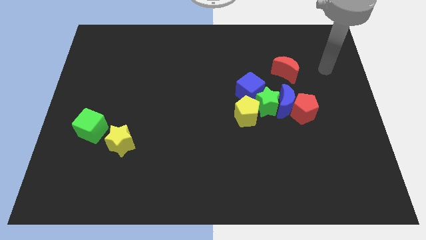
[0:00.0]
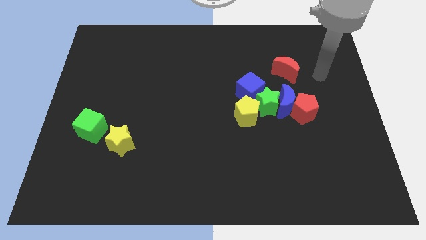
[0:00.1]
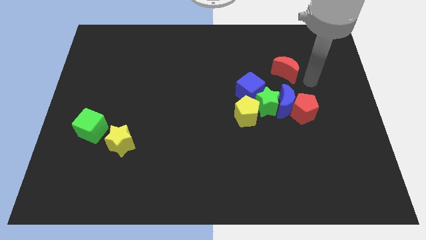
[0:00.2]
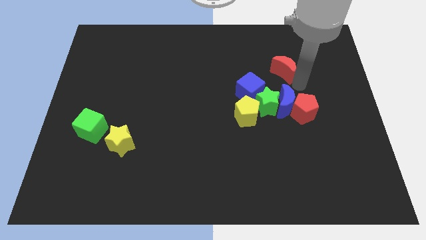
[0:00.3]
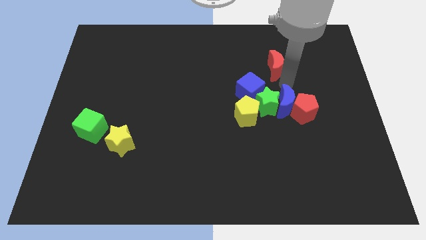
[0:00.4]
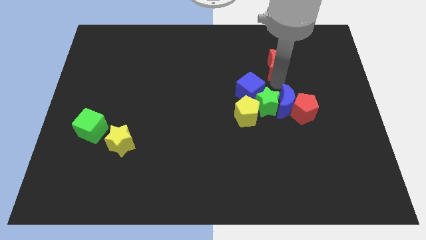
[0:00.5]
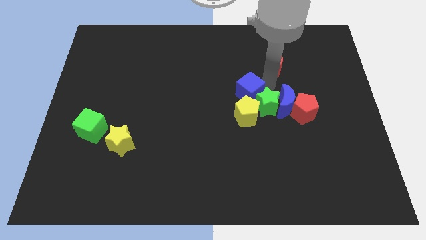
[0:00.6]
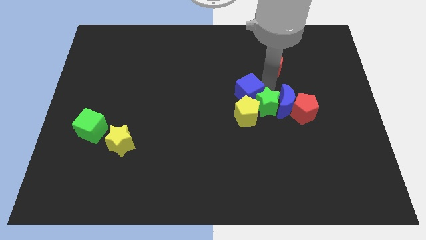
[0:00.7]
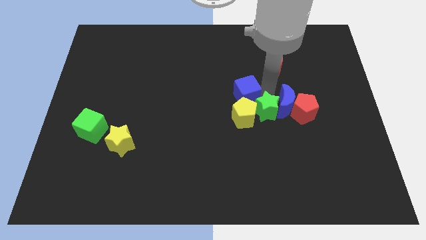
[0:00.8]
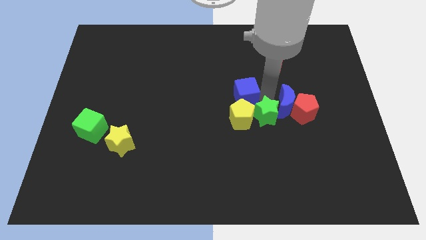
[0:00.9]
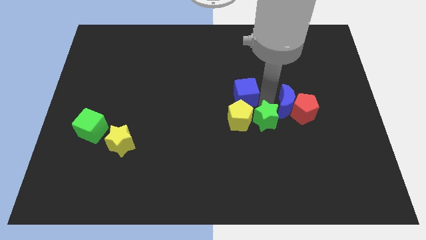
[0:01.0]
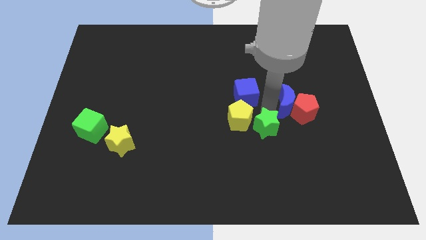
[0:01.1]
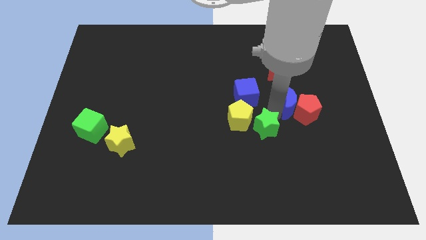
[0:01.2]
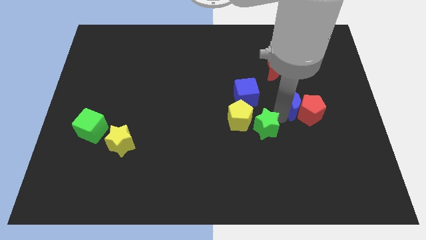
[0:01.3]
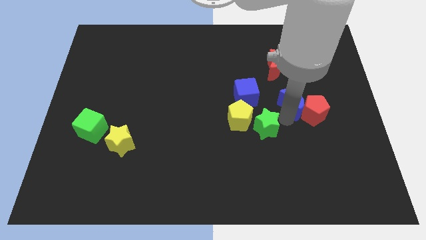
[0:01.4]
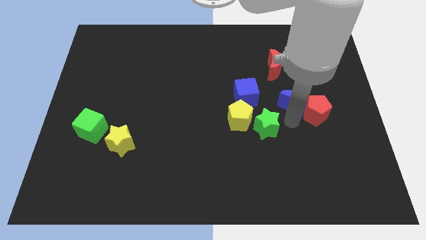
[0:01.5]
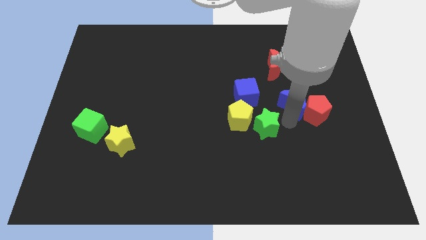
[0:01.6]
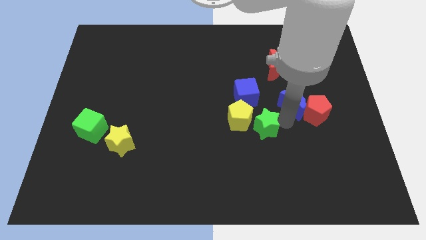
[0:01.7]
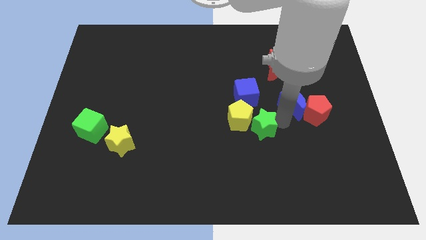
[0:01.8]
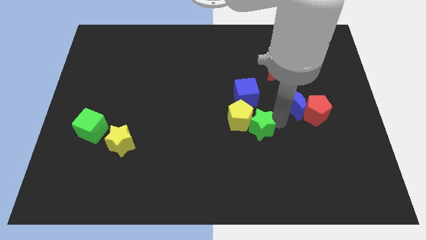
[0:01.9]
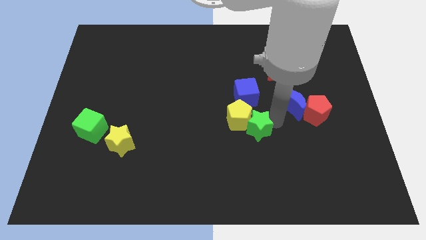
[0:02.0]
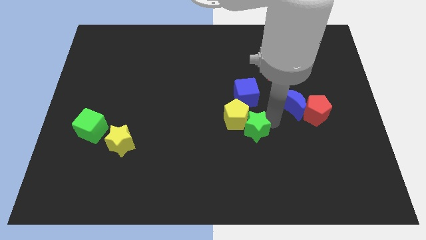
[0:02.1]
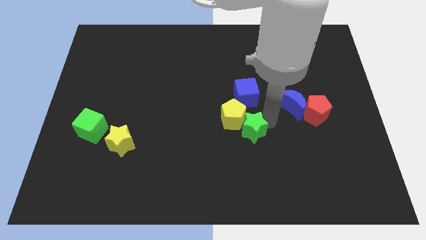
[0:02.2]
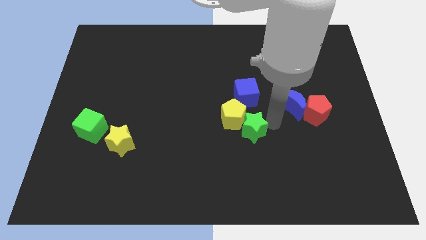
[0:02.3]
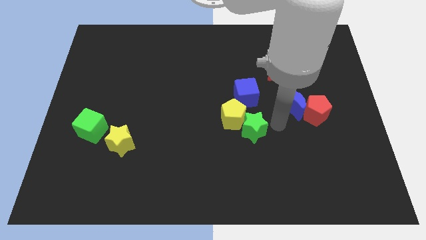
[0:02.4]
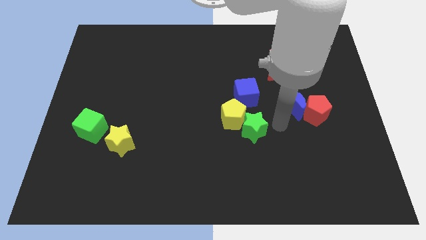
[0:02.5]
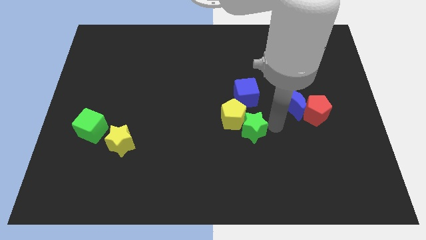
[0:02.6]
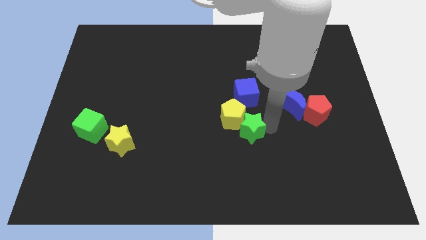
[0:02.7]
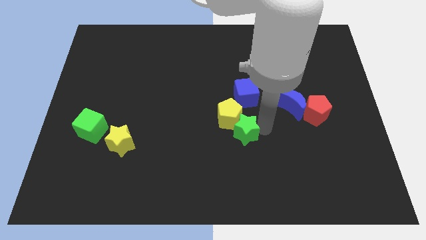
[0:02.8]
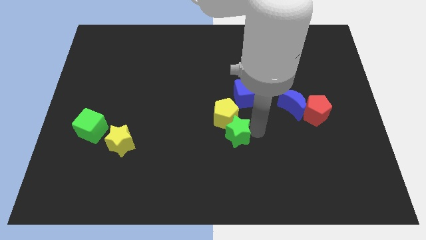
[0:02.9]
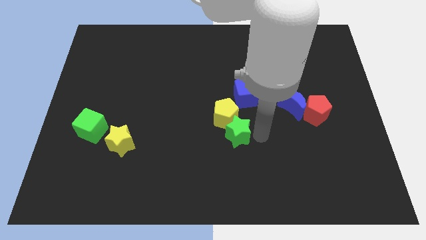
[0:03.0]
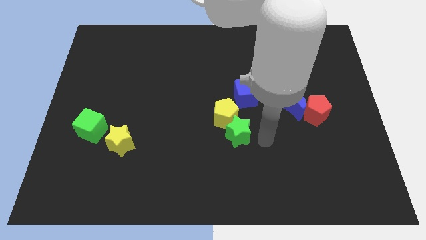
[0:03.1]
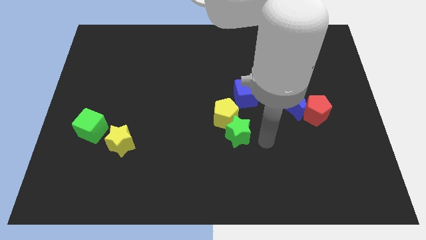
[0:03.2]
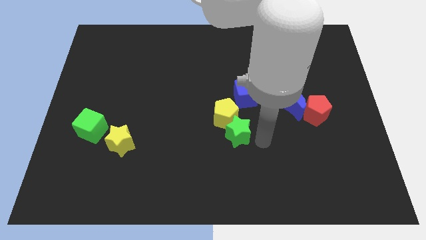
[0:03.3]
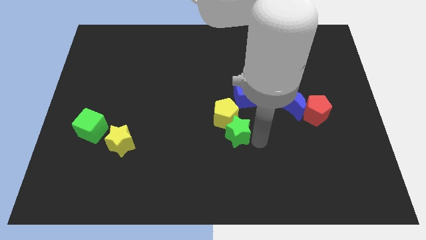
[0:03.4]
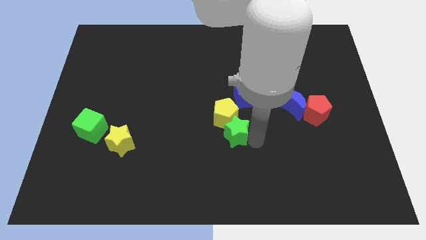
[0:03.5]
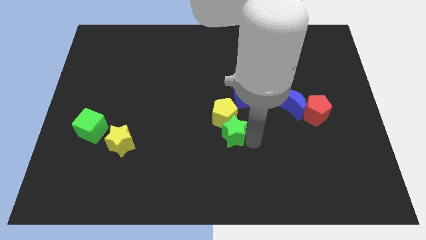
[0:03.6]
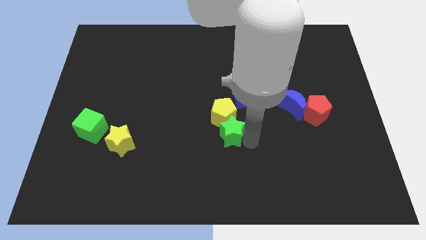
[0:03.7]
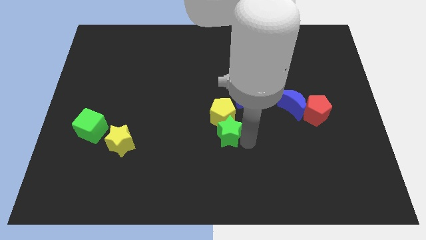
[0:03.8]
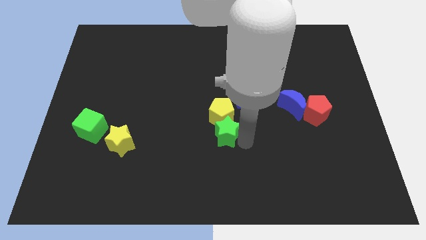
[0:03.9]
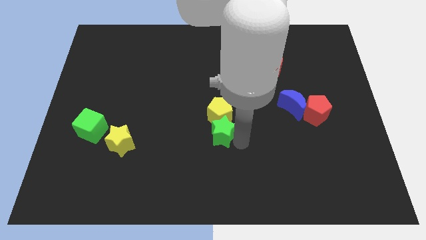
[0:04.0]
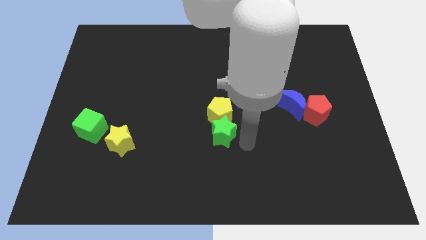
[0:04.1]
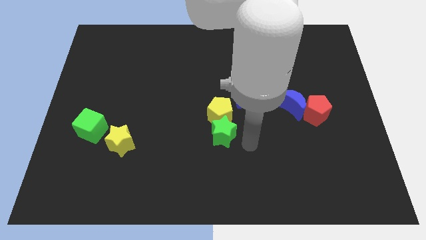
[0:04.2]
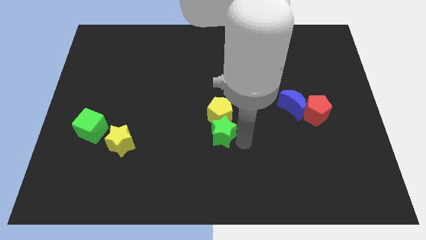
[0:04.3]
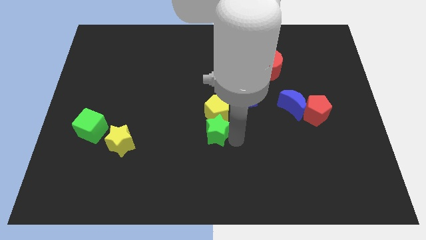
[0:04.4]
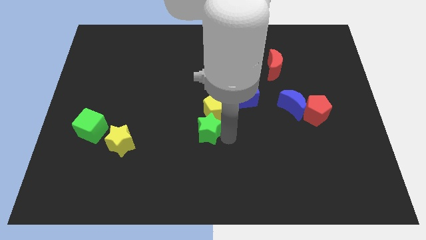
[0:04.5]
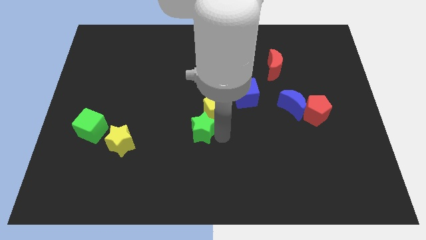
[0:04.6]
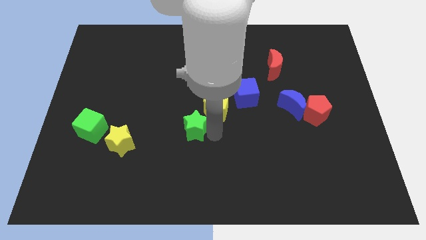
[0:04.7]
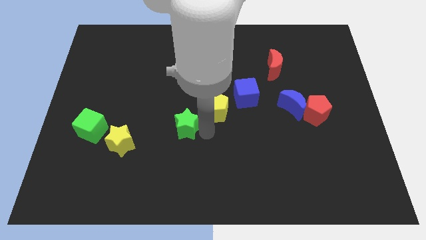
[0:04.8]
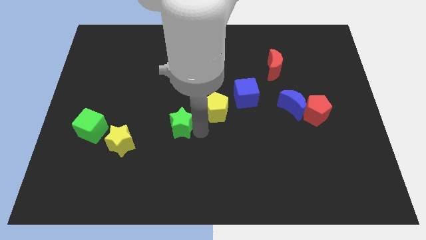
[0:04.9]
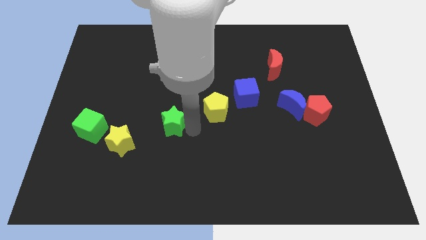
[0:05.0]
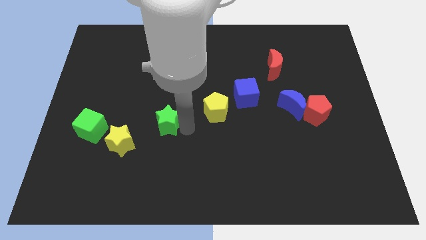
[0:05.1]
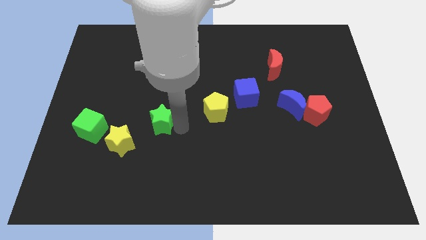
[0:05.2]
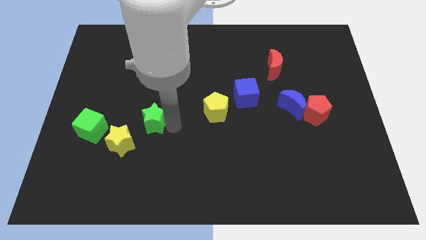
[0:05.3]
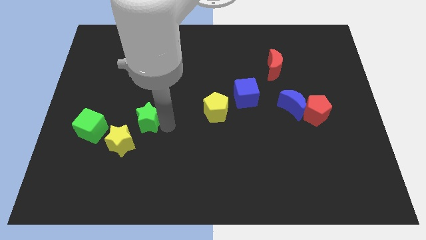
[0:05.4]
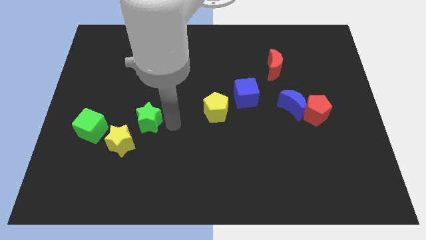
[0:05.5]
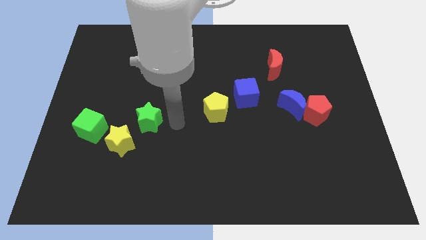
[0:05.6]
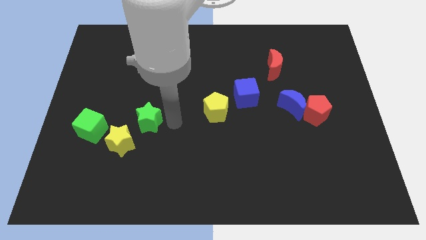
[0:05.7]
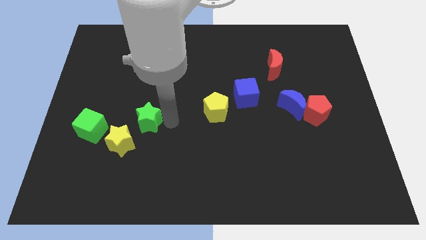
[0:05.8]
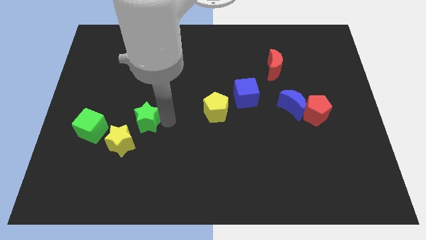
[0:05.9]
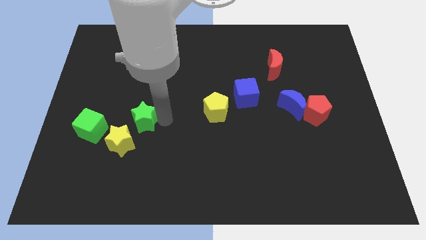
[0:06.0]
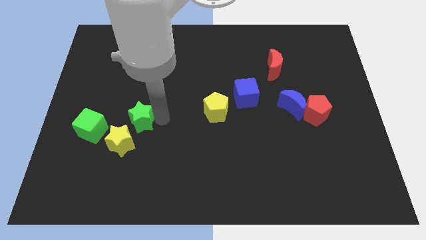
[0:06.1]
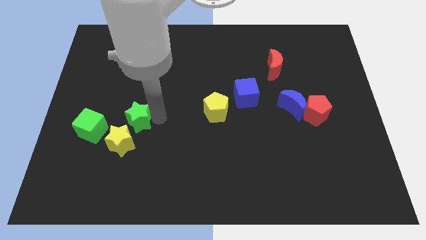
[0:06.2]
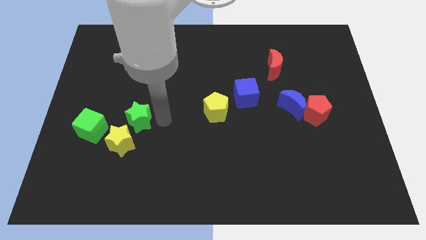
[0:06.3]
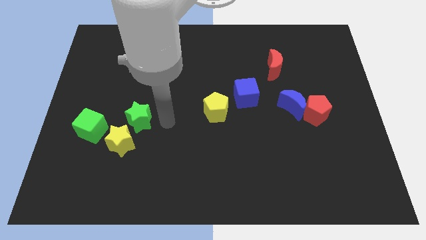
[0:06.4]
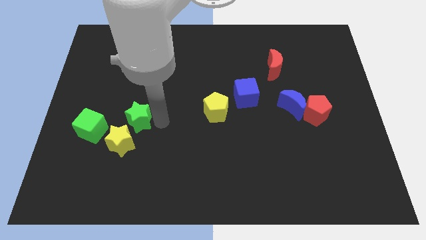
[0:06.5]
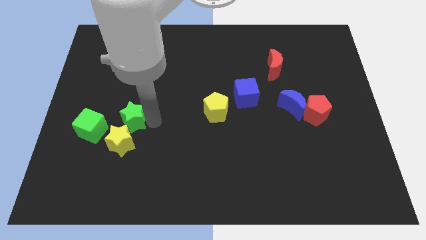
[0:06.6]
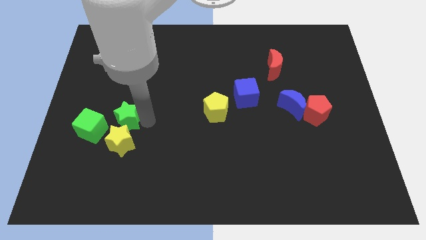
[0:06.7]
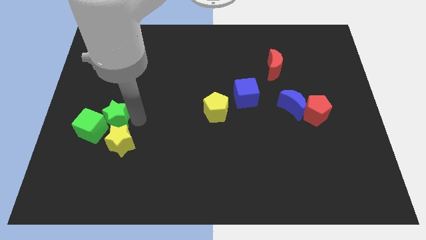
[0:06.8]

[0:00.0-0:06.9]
slide the green star close to the green cube

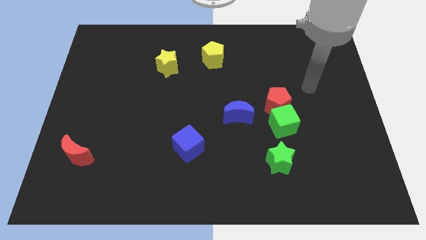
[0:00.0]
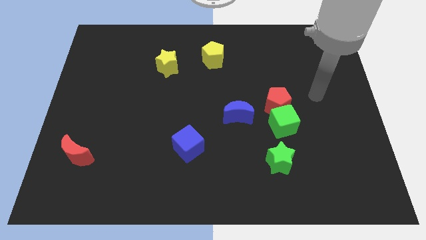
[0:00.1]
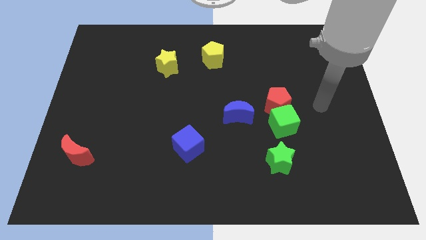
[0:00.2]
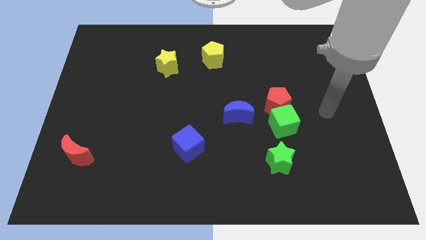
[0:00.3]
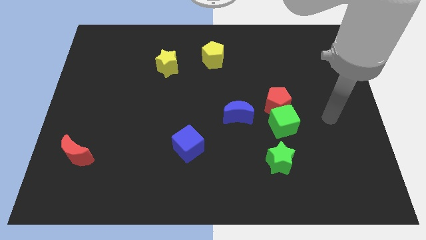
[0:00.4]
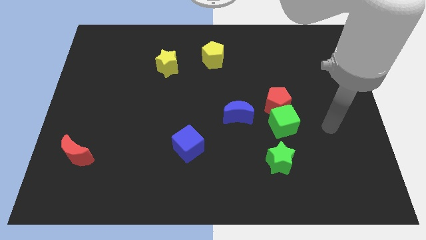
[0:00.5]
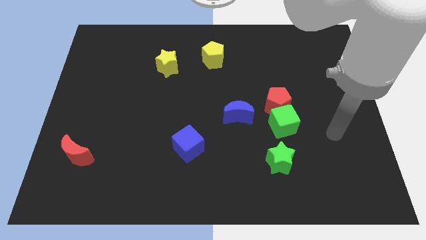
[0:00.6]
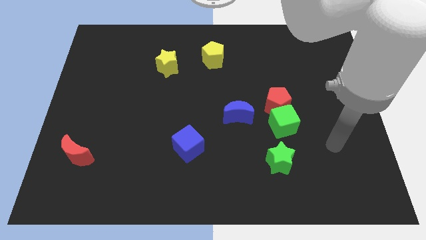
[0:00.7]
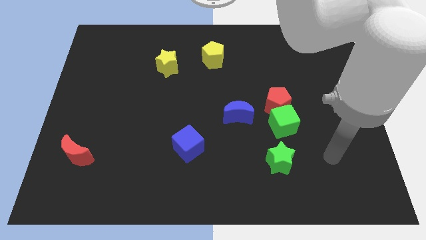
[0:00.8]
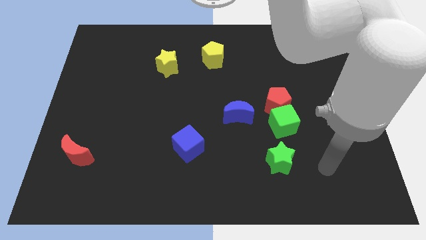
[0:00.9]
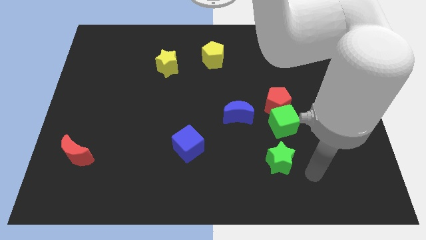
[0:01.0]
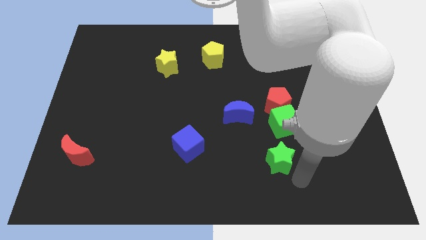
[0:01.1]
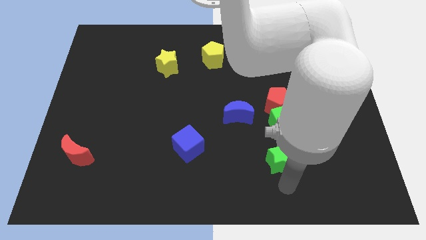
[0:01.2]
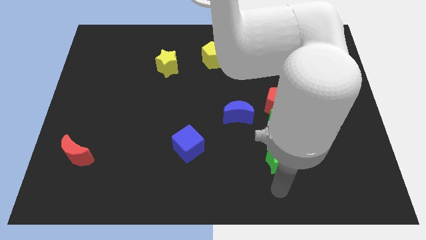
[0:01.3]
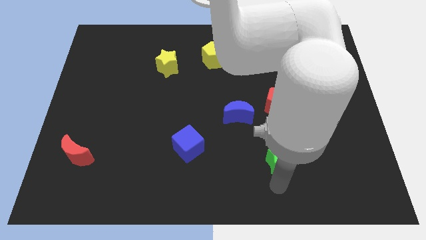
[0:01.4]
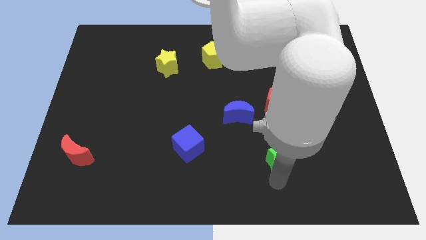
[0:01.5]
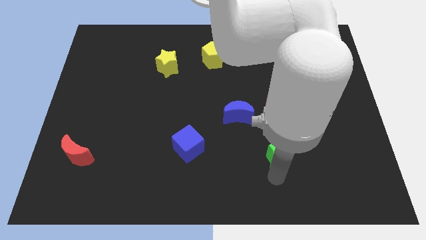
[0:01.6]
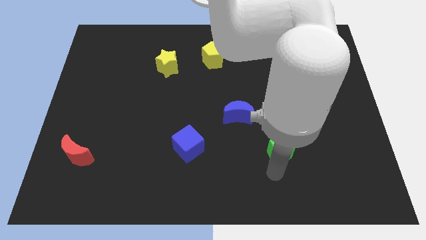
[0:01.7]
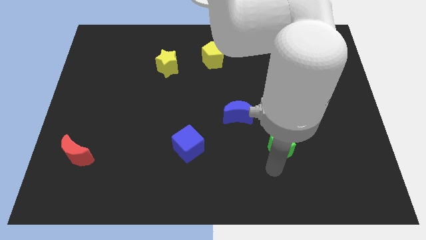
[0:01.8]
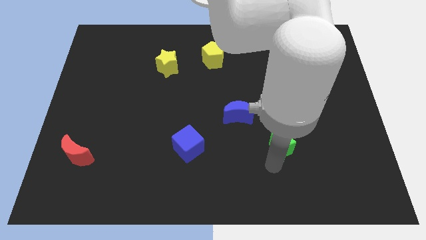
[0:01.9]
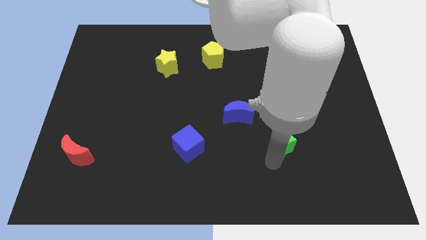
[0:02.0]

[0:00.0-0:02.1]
slide the green star towards the green cube
